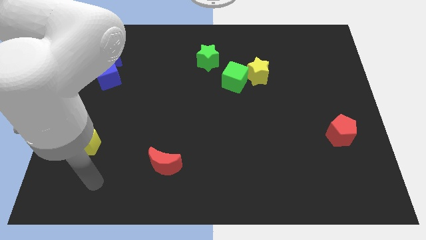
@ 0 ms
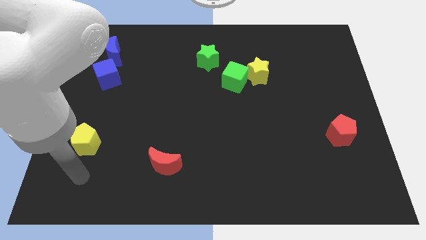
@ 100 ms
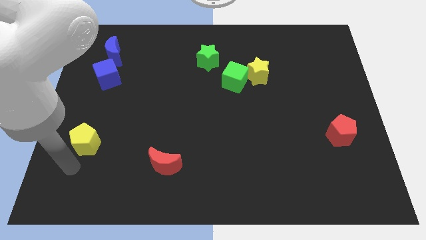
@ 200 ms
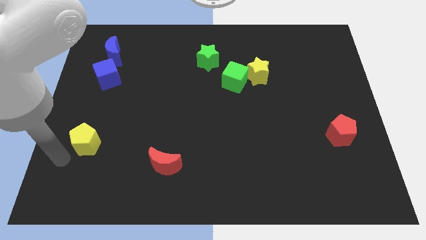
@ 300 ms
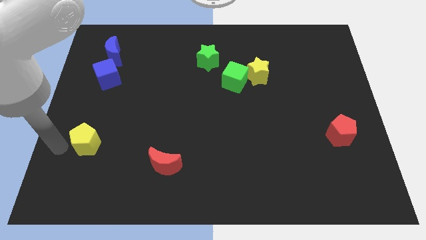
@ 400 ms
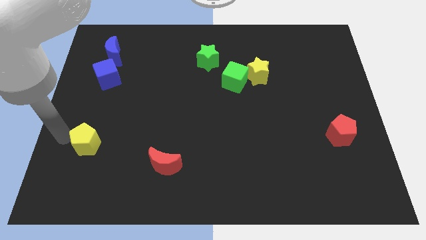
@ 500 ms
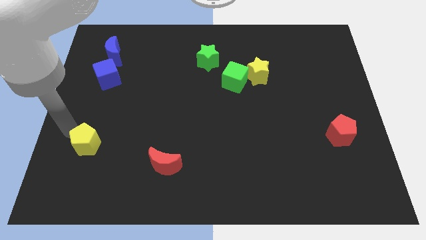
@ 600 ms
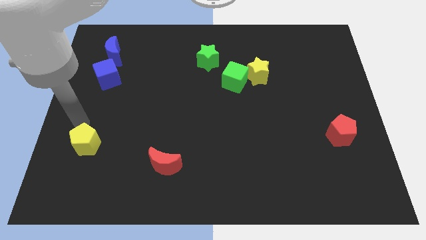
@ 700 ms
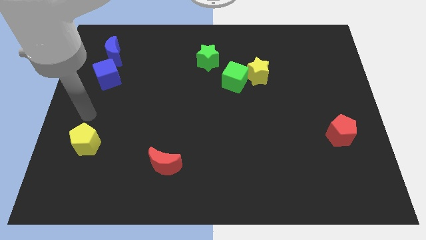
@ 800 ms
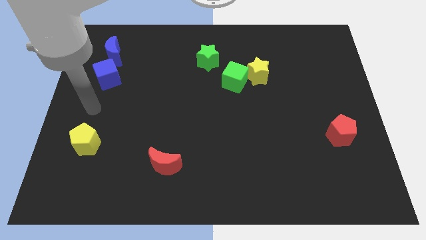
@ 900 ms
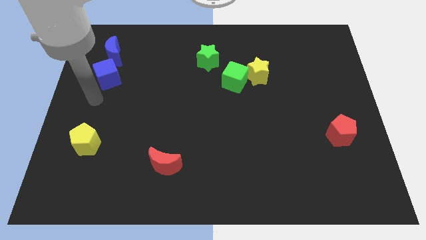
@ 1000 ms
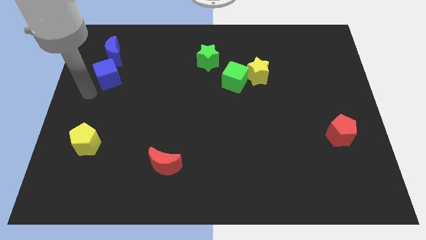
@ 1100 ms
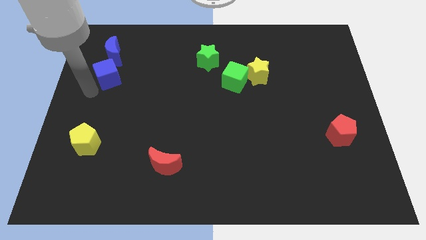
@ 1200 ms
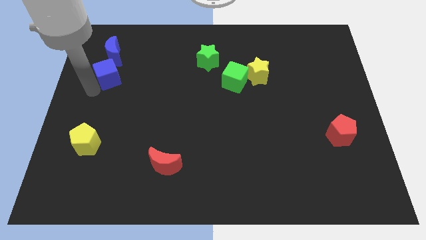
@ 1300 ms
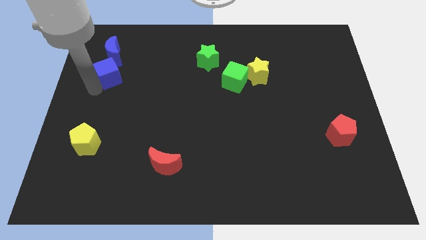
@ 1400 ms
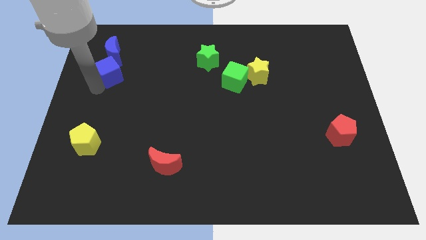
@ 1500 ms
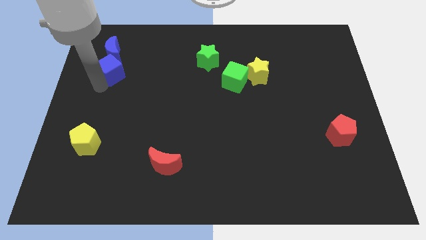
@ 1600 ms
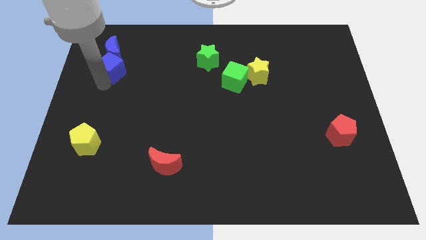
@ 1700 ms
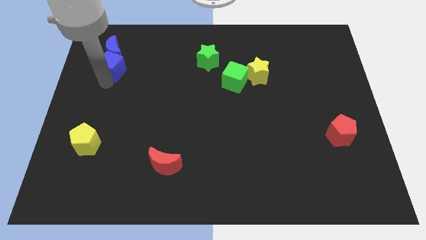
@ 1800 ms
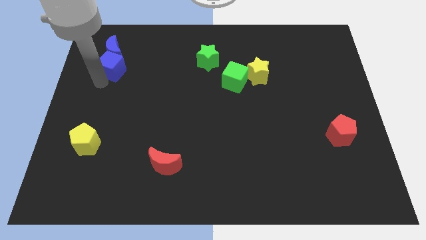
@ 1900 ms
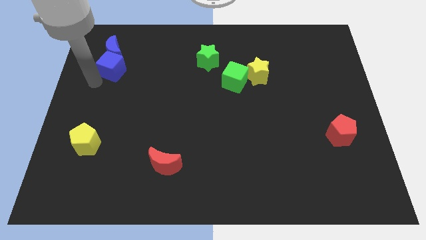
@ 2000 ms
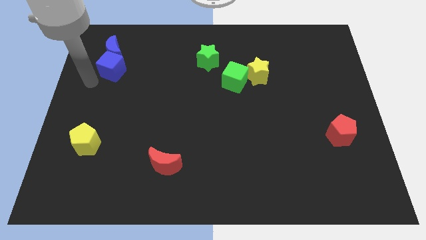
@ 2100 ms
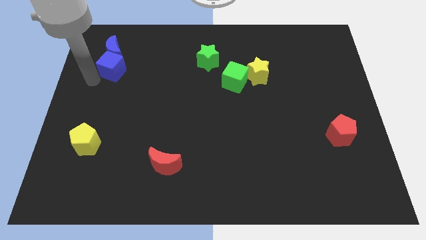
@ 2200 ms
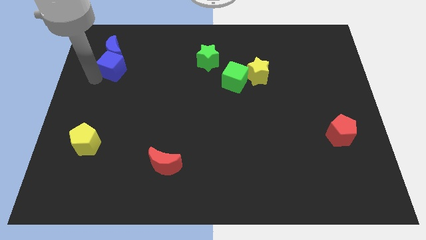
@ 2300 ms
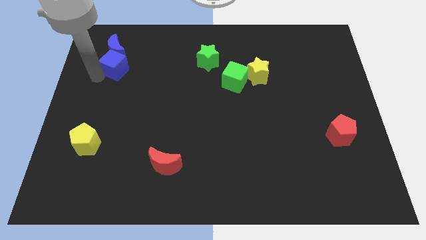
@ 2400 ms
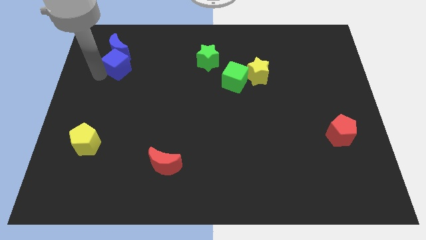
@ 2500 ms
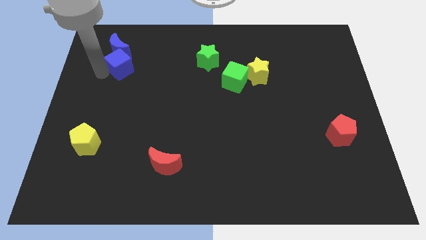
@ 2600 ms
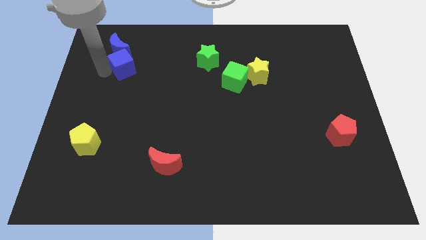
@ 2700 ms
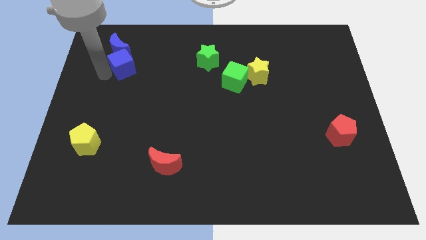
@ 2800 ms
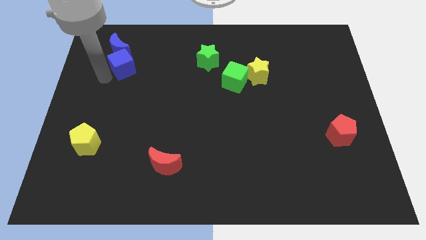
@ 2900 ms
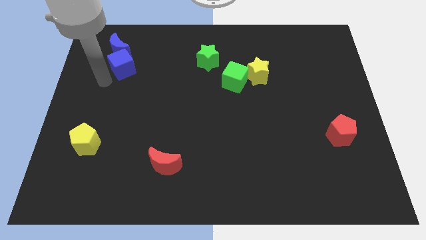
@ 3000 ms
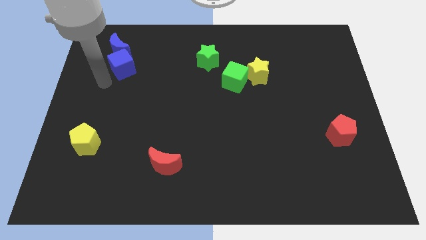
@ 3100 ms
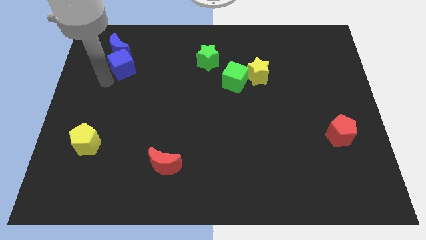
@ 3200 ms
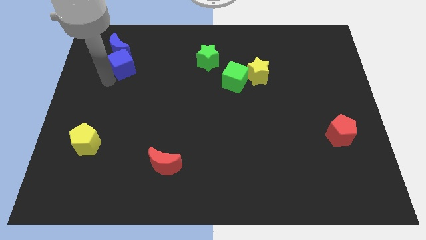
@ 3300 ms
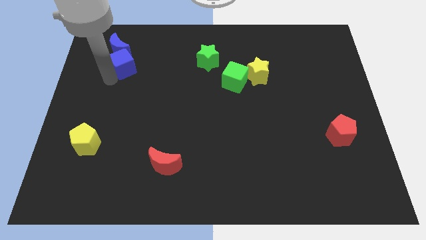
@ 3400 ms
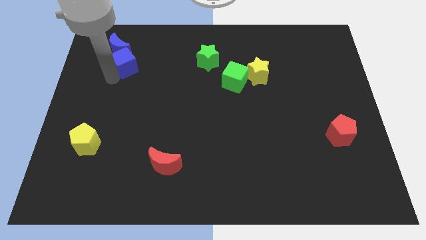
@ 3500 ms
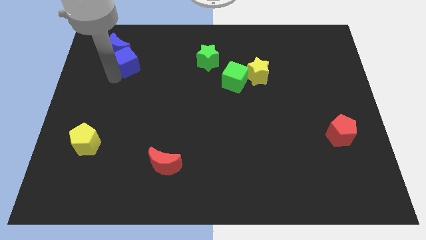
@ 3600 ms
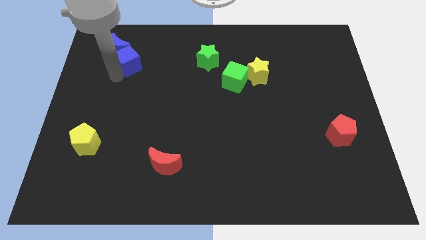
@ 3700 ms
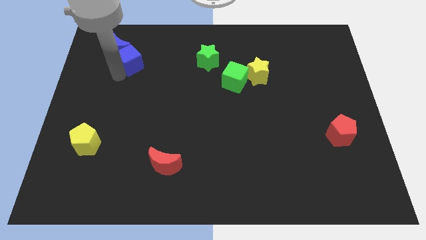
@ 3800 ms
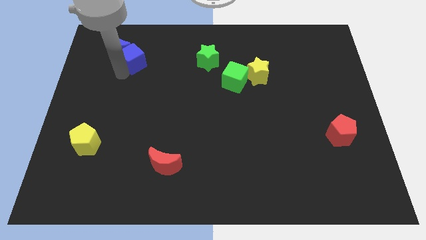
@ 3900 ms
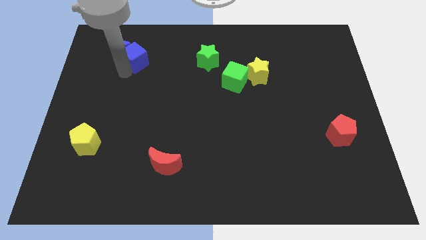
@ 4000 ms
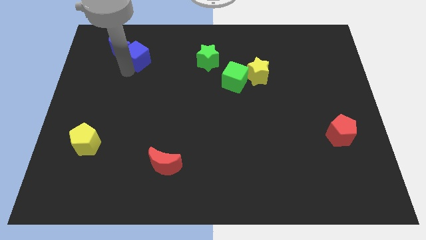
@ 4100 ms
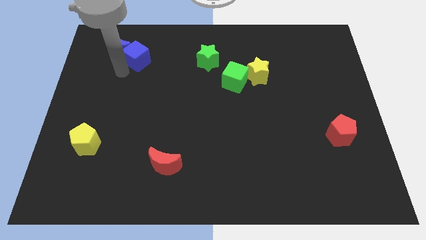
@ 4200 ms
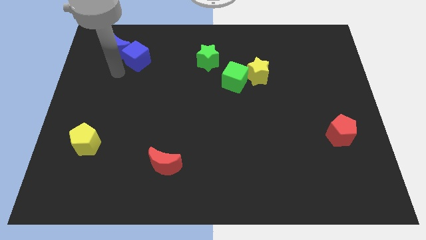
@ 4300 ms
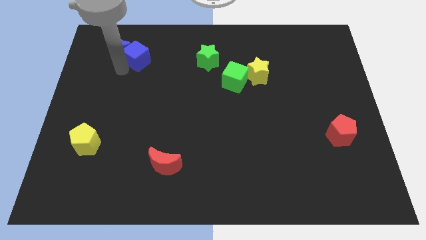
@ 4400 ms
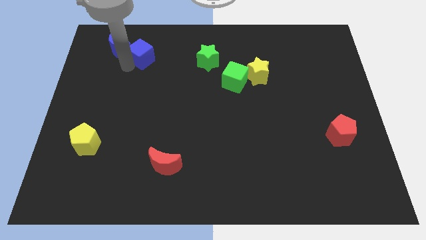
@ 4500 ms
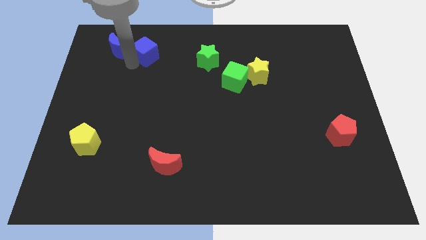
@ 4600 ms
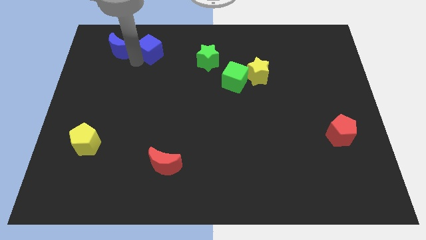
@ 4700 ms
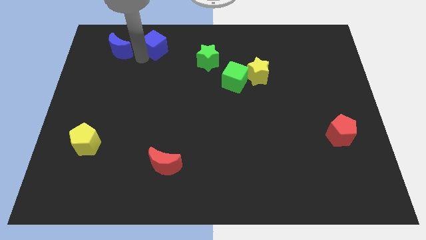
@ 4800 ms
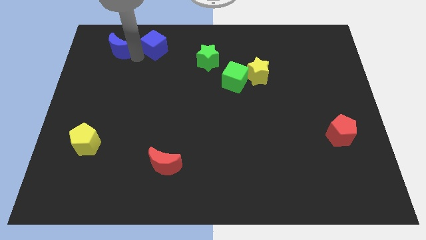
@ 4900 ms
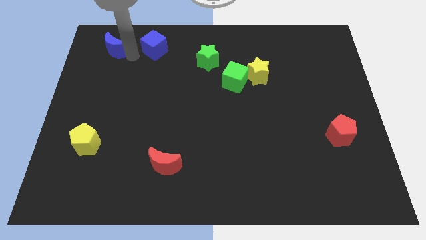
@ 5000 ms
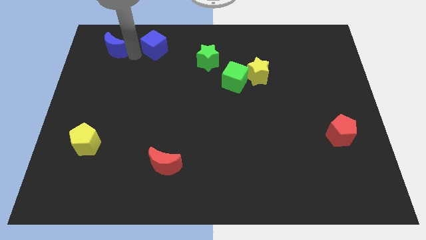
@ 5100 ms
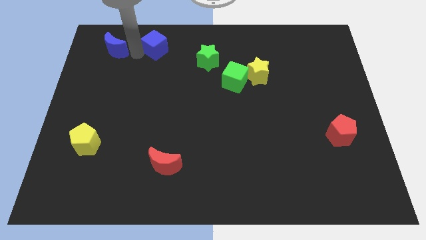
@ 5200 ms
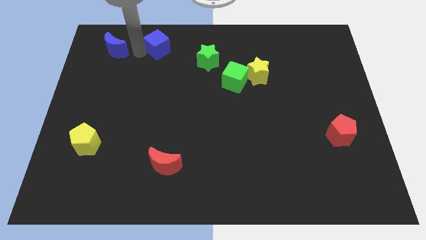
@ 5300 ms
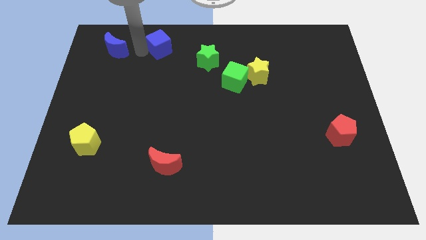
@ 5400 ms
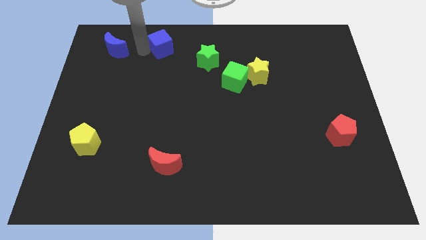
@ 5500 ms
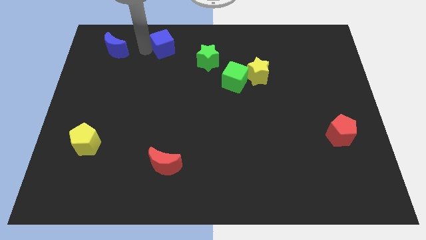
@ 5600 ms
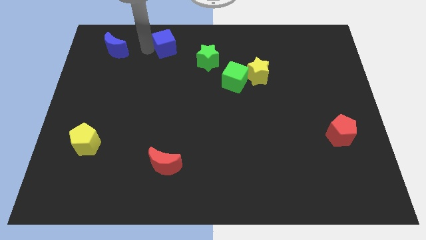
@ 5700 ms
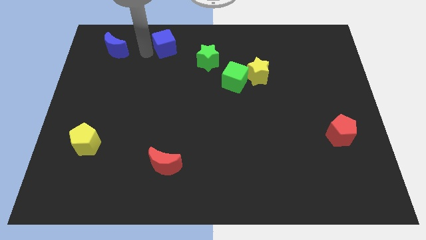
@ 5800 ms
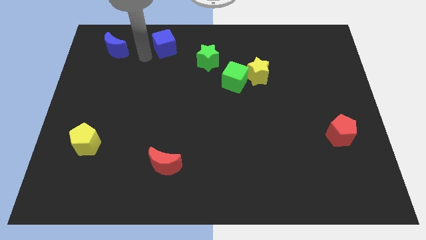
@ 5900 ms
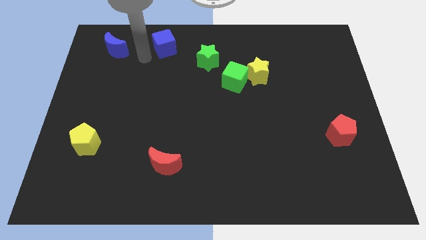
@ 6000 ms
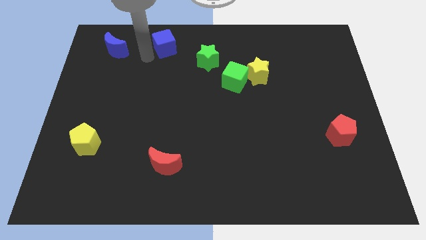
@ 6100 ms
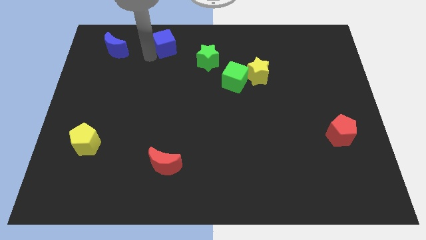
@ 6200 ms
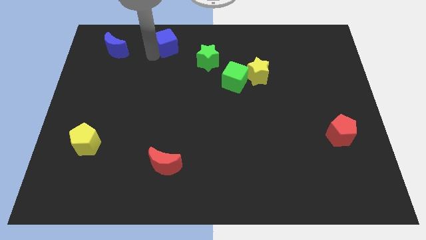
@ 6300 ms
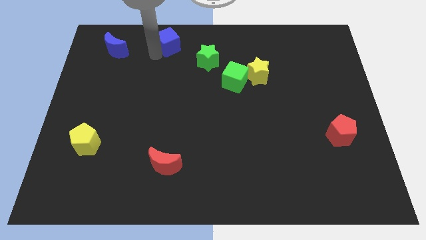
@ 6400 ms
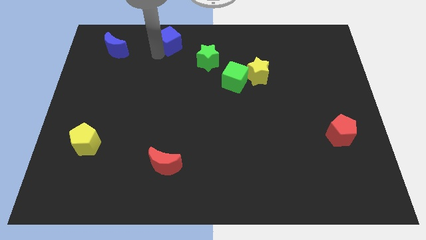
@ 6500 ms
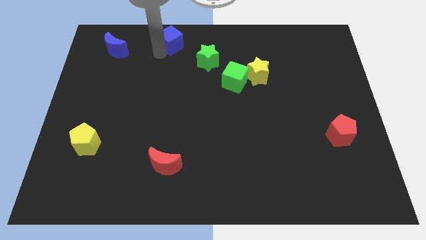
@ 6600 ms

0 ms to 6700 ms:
push the blue cube to the towards your base

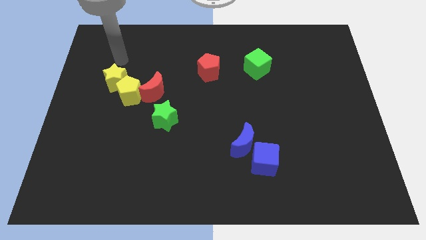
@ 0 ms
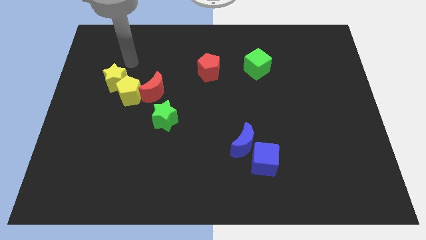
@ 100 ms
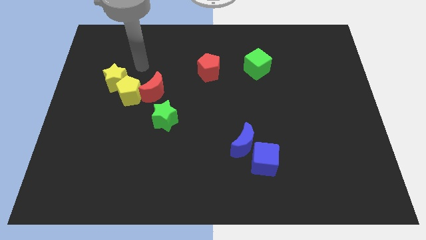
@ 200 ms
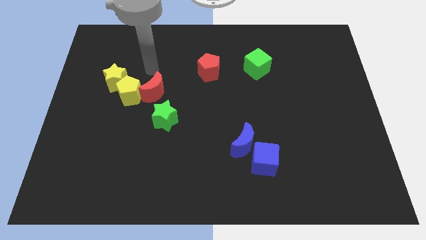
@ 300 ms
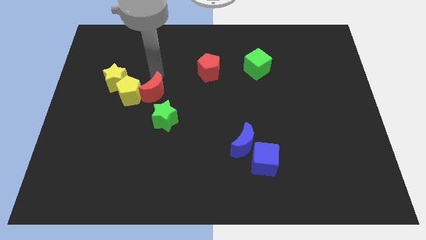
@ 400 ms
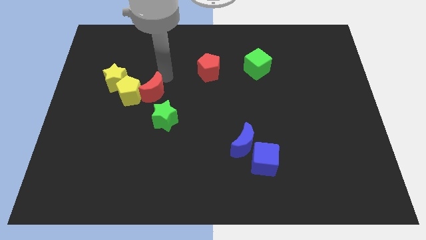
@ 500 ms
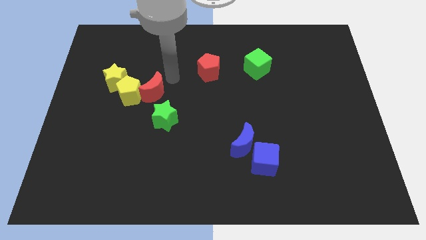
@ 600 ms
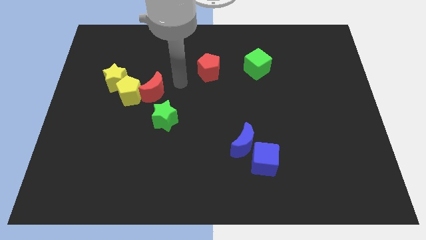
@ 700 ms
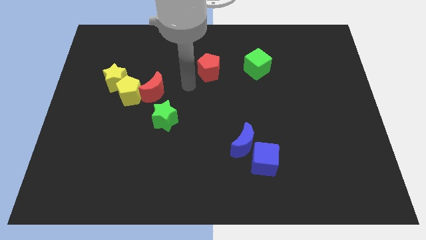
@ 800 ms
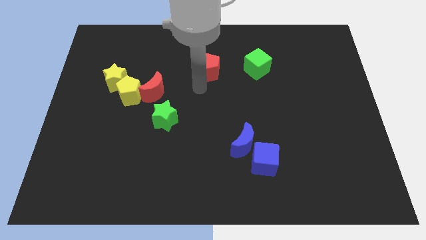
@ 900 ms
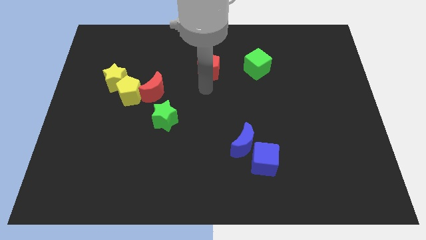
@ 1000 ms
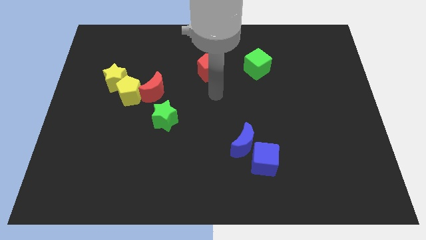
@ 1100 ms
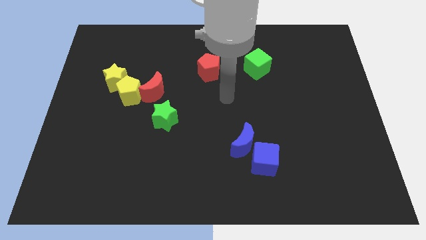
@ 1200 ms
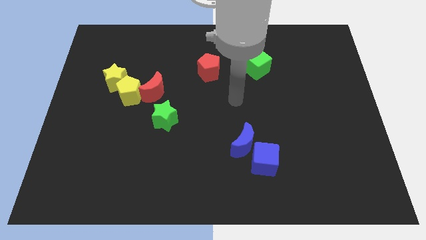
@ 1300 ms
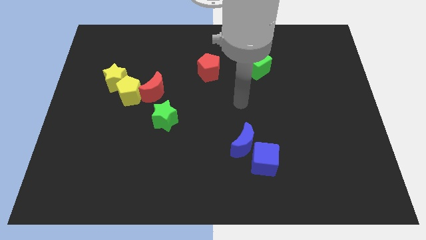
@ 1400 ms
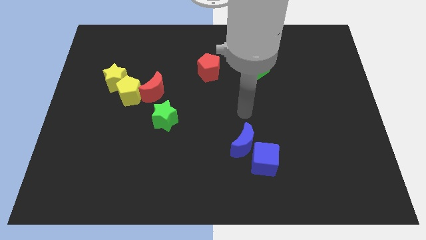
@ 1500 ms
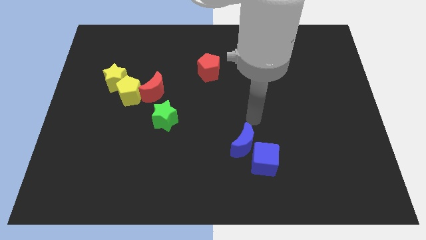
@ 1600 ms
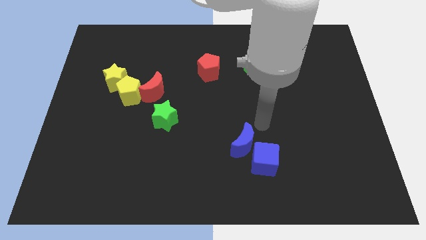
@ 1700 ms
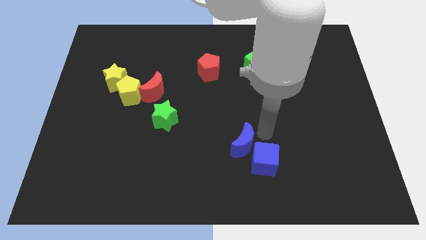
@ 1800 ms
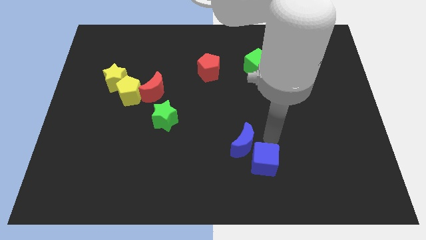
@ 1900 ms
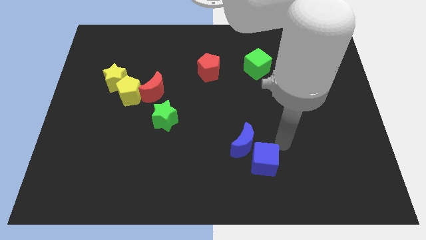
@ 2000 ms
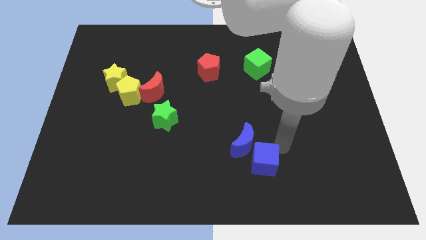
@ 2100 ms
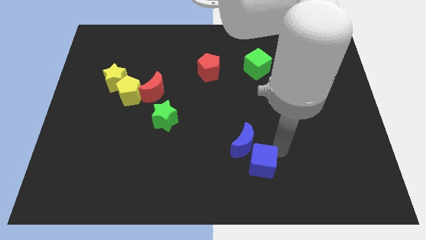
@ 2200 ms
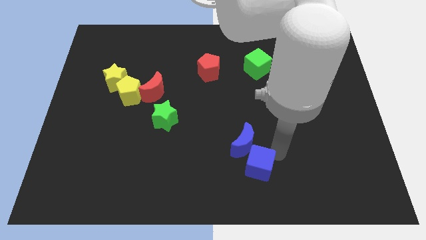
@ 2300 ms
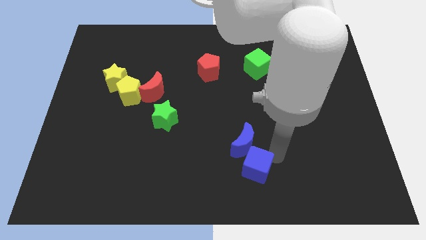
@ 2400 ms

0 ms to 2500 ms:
push the blue cube to the bottom
